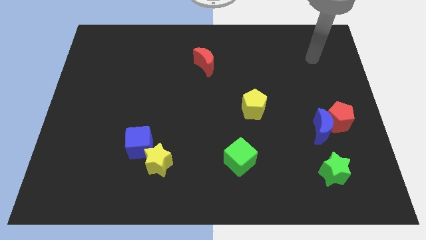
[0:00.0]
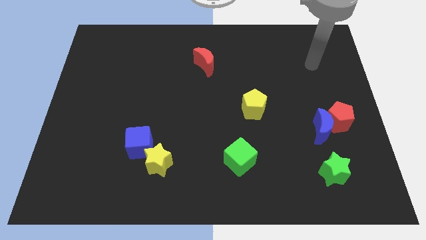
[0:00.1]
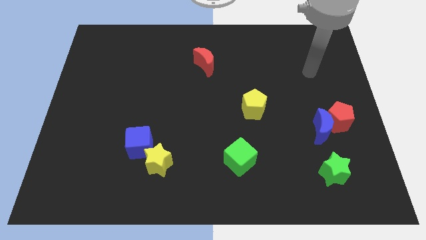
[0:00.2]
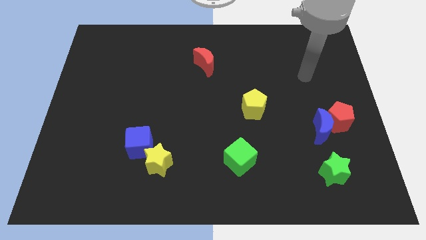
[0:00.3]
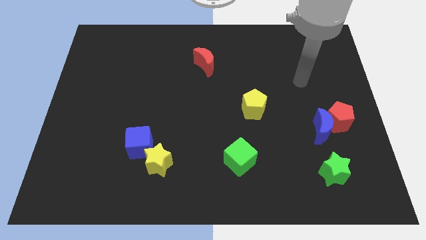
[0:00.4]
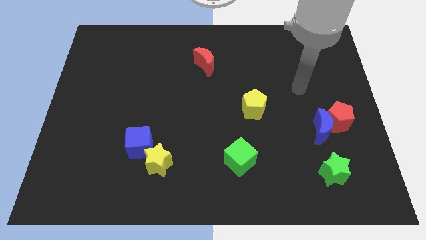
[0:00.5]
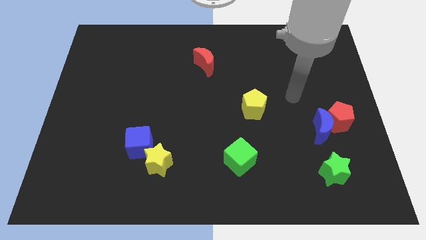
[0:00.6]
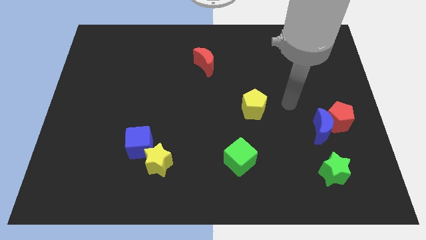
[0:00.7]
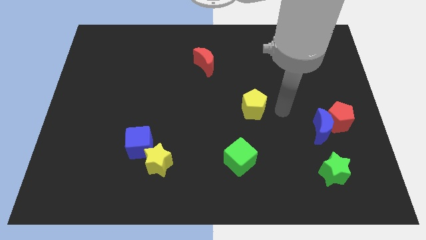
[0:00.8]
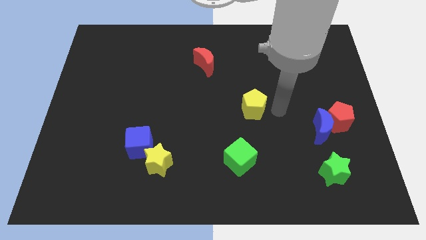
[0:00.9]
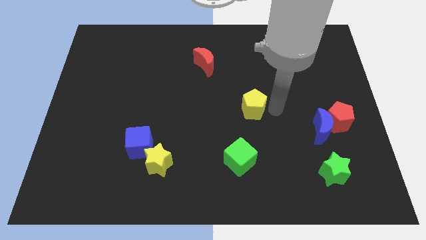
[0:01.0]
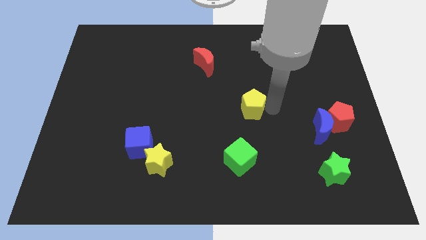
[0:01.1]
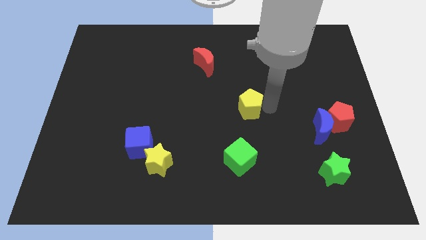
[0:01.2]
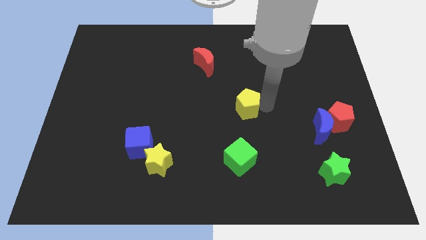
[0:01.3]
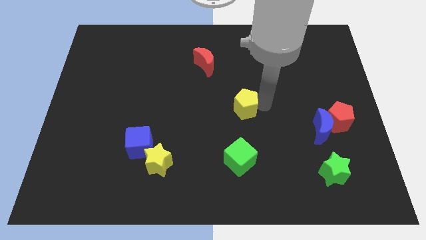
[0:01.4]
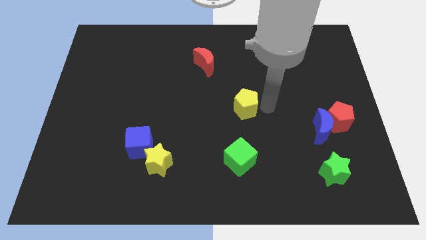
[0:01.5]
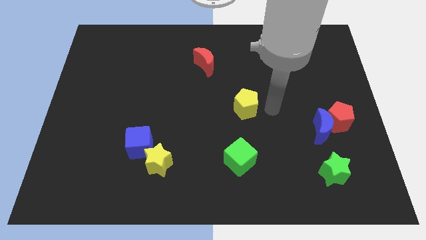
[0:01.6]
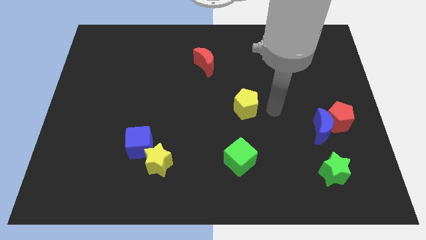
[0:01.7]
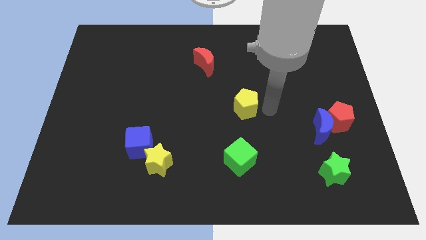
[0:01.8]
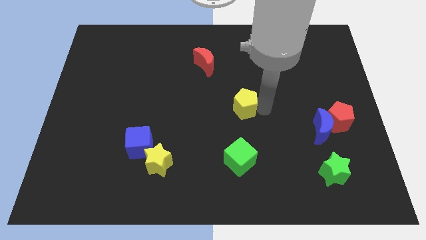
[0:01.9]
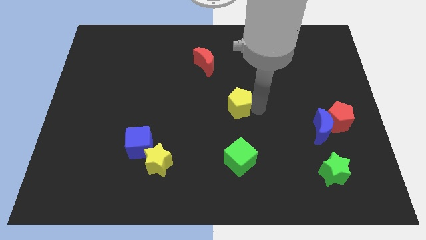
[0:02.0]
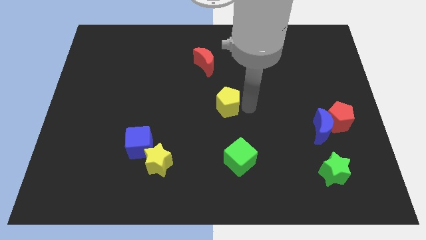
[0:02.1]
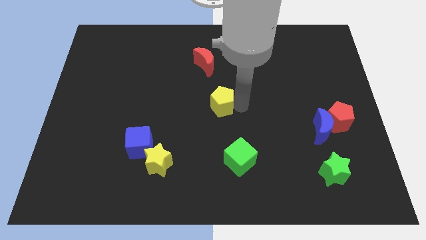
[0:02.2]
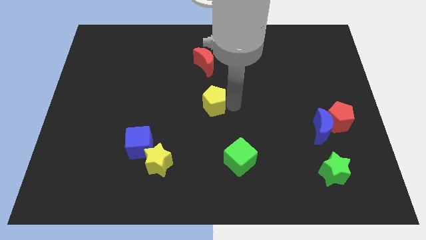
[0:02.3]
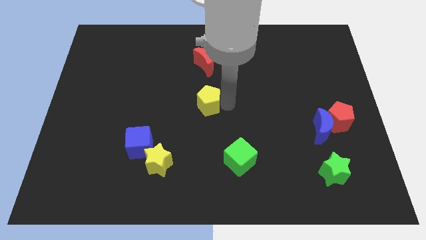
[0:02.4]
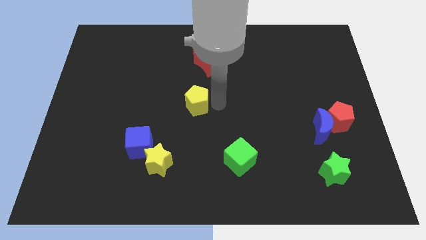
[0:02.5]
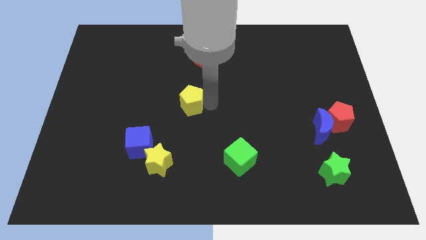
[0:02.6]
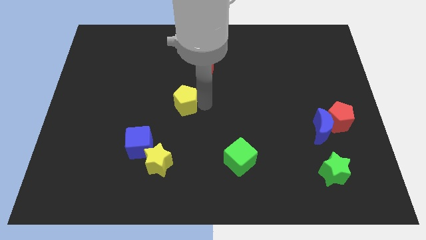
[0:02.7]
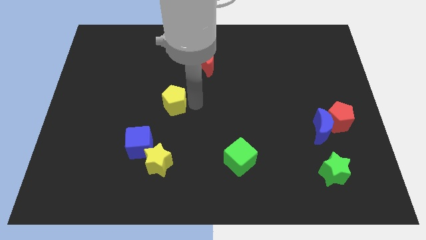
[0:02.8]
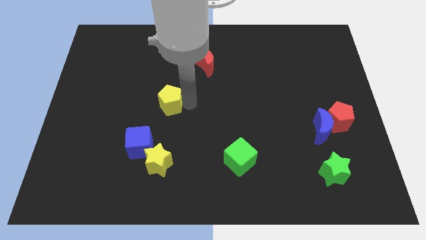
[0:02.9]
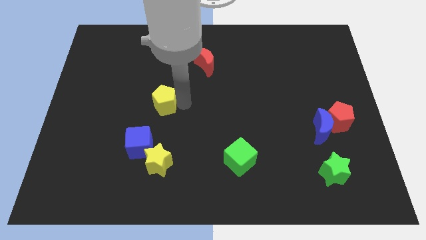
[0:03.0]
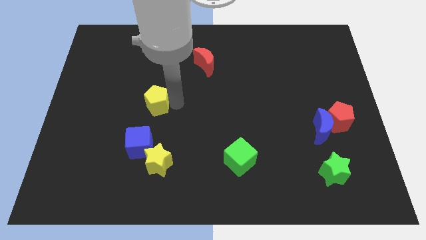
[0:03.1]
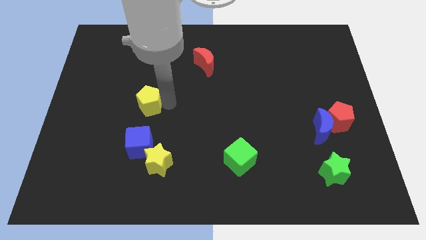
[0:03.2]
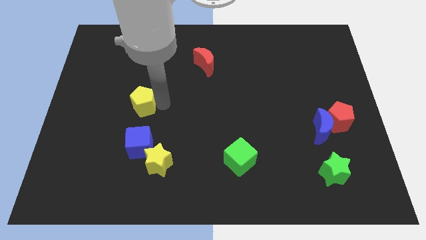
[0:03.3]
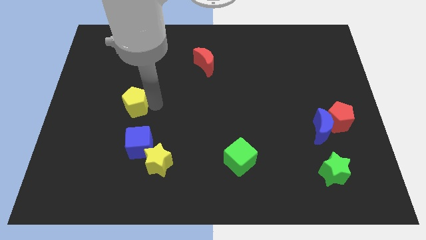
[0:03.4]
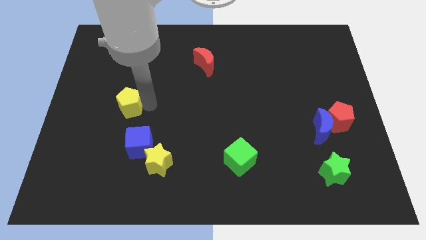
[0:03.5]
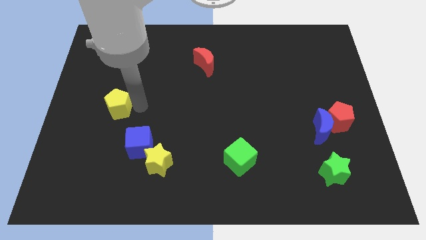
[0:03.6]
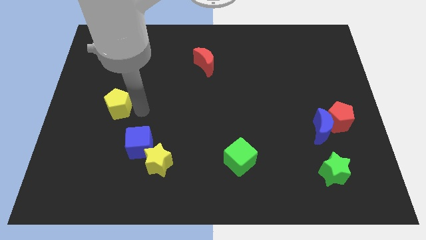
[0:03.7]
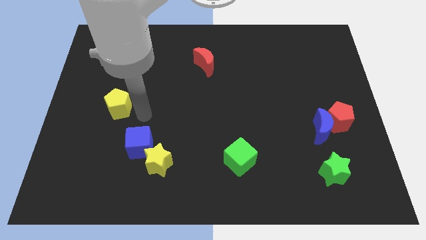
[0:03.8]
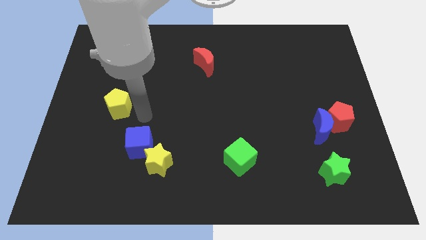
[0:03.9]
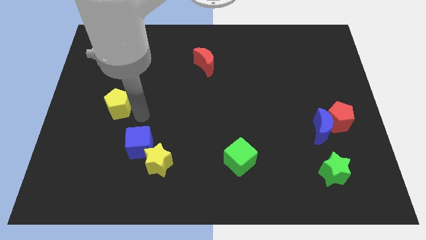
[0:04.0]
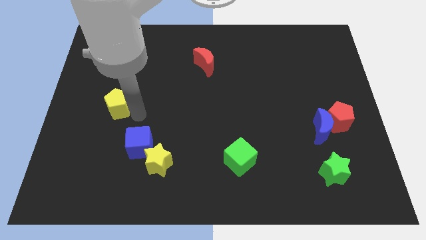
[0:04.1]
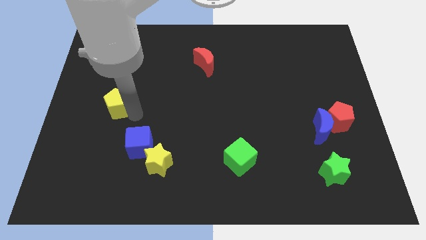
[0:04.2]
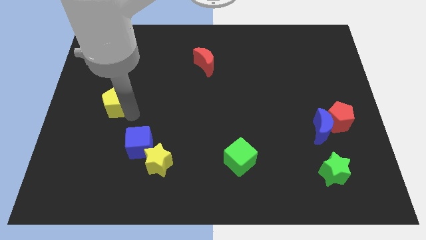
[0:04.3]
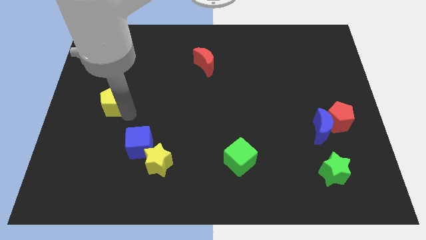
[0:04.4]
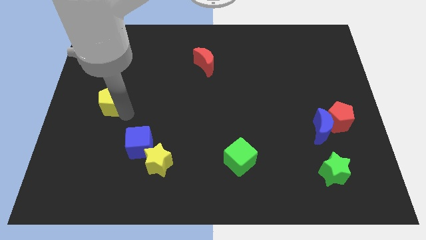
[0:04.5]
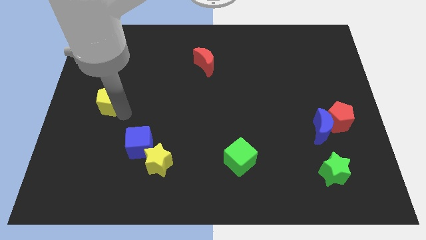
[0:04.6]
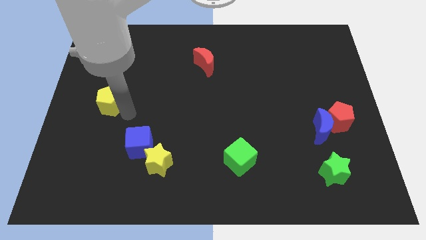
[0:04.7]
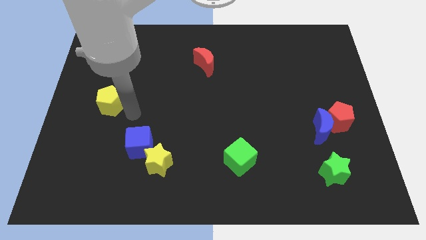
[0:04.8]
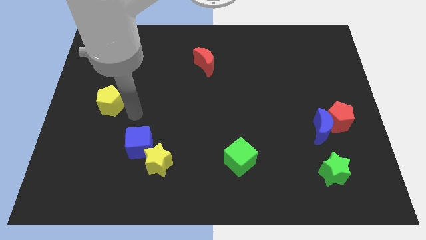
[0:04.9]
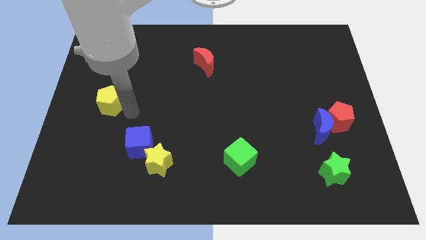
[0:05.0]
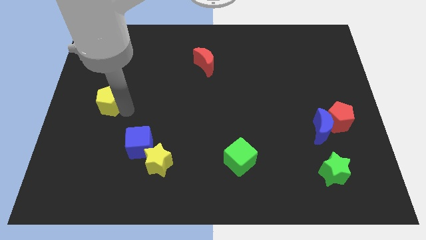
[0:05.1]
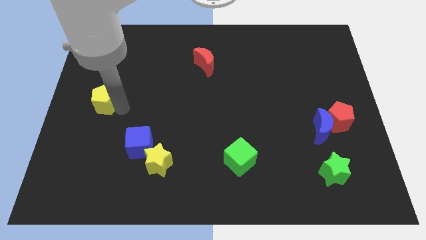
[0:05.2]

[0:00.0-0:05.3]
push the yellow pentagon to the left side

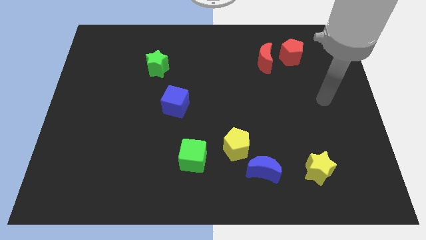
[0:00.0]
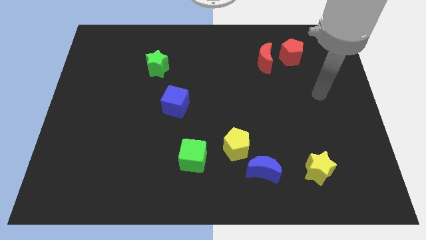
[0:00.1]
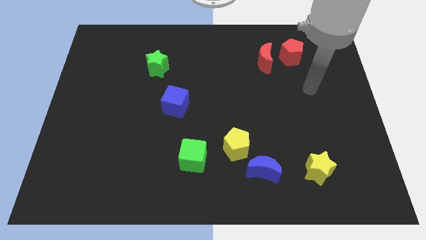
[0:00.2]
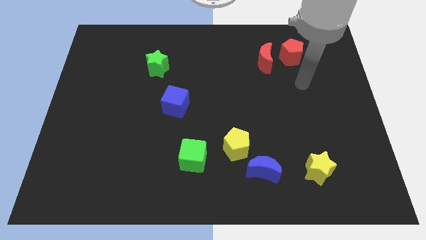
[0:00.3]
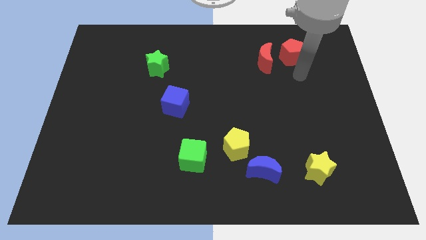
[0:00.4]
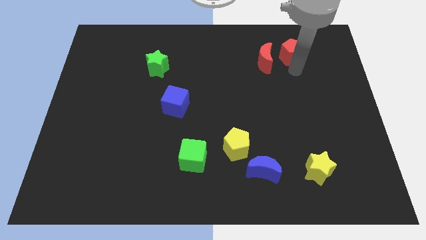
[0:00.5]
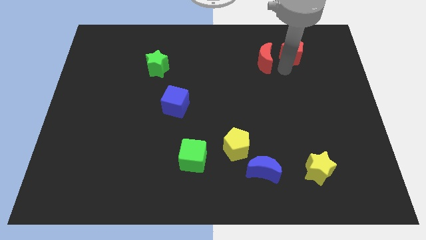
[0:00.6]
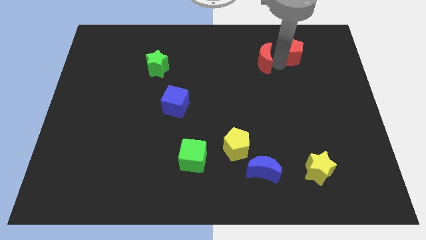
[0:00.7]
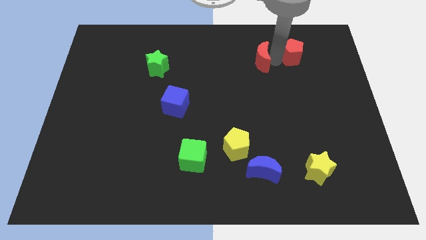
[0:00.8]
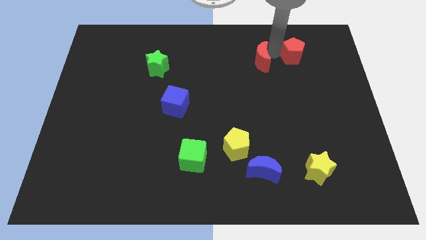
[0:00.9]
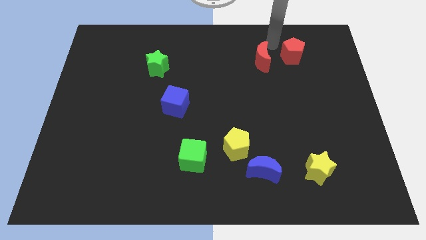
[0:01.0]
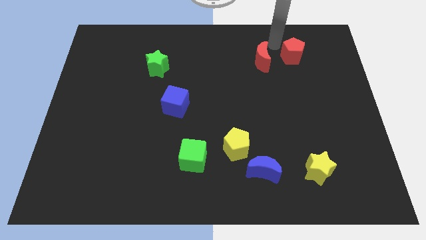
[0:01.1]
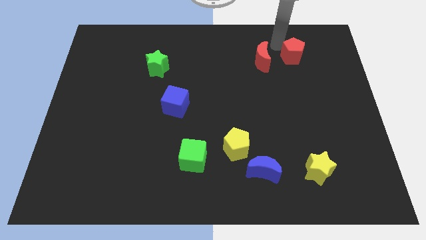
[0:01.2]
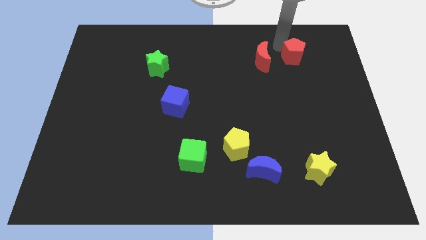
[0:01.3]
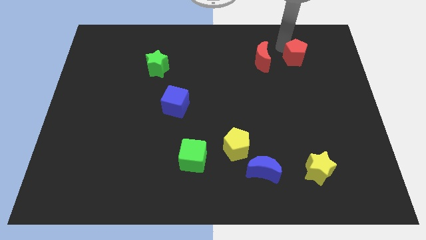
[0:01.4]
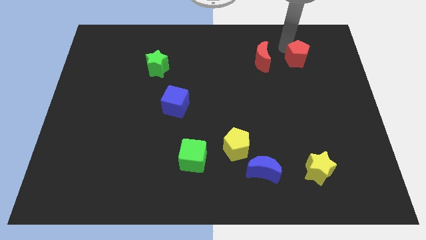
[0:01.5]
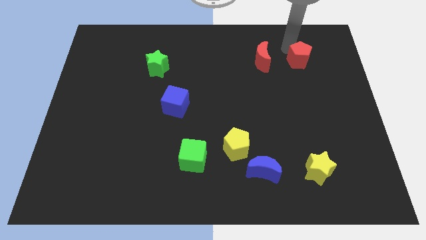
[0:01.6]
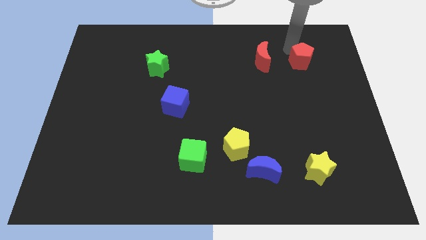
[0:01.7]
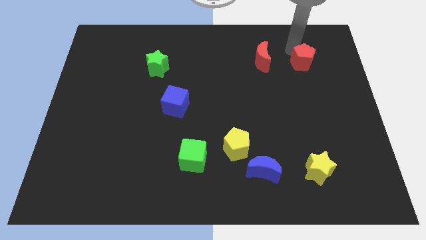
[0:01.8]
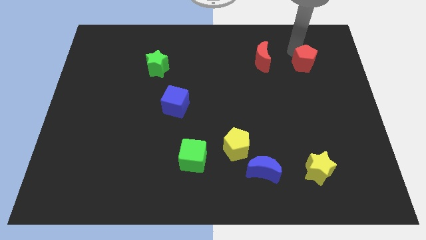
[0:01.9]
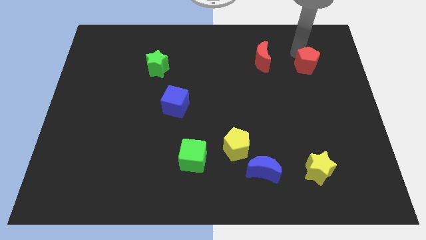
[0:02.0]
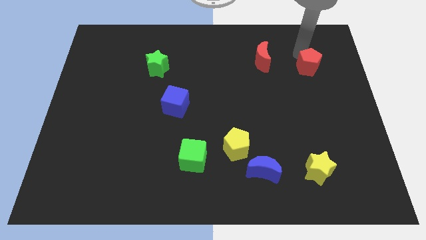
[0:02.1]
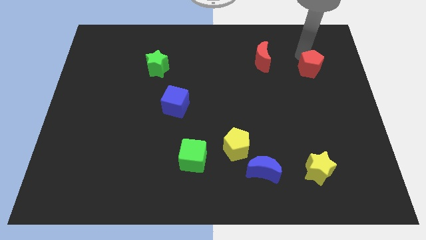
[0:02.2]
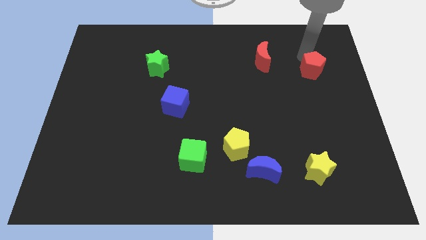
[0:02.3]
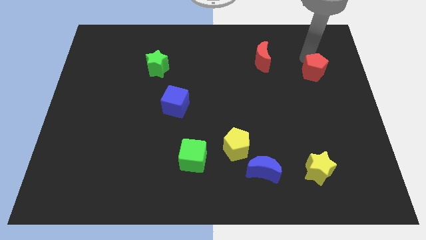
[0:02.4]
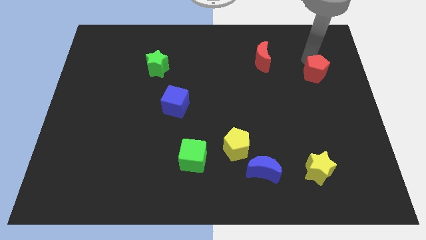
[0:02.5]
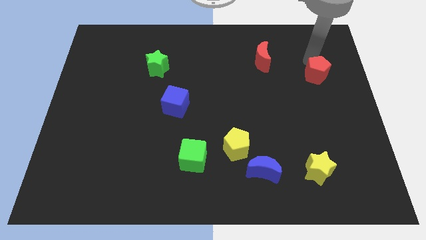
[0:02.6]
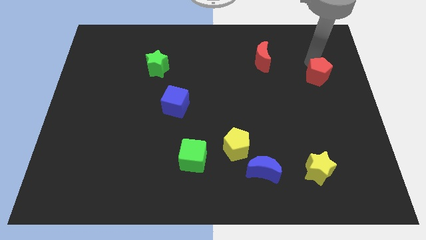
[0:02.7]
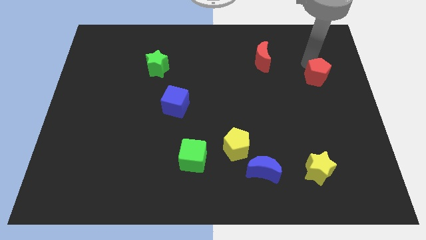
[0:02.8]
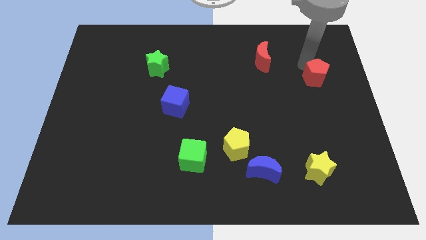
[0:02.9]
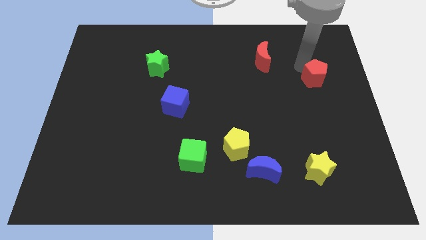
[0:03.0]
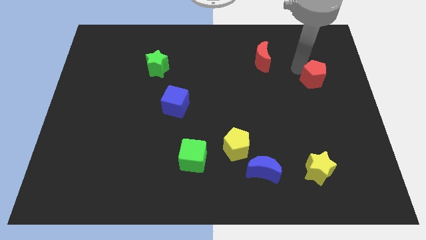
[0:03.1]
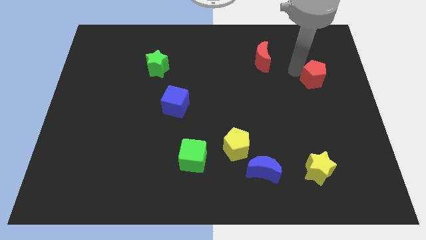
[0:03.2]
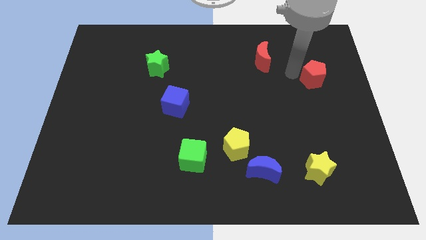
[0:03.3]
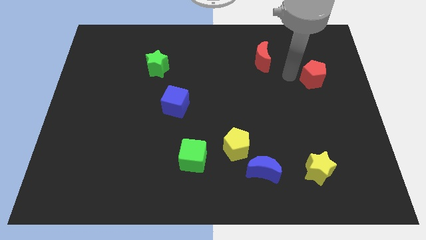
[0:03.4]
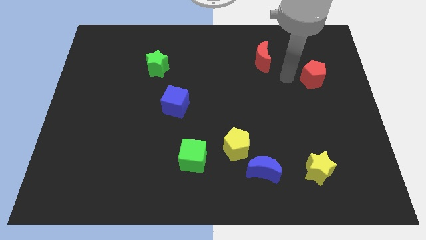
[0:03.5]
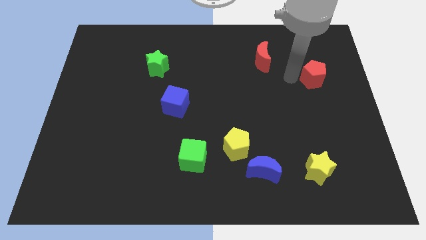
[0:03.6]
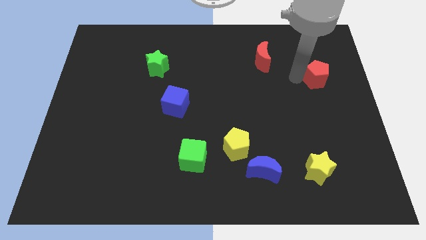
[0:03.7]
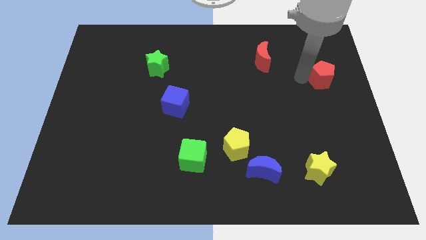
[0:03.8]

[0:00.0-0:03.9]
move the red pentagon to the right side
